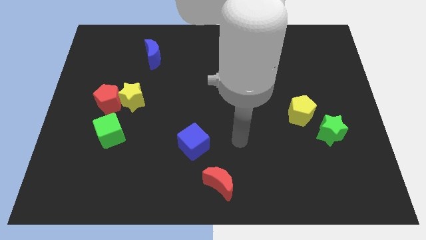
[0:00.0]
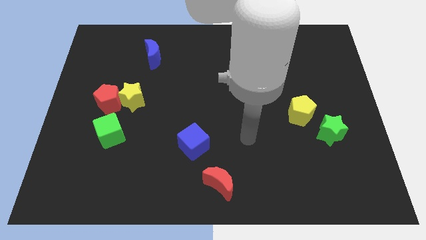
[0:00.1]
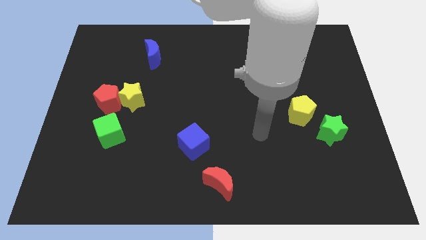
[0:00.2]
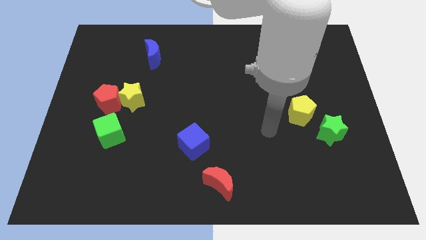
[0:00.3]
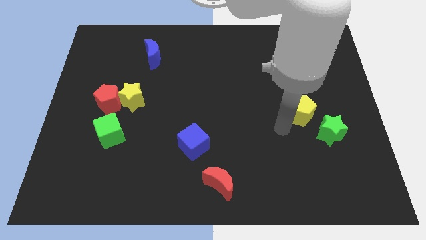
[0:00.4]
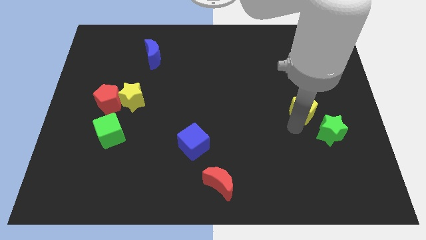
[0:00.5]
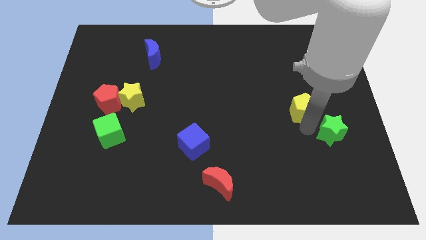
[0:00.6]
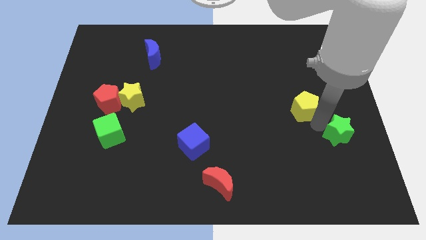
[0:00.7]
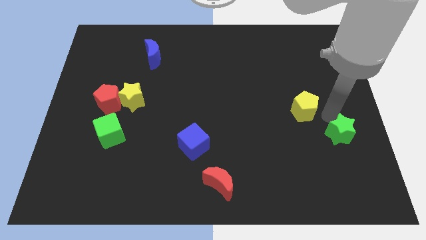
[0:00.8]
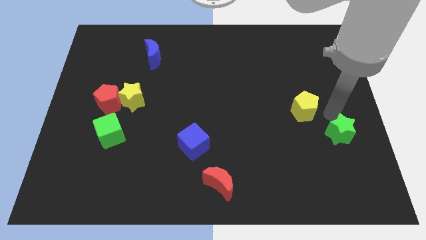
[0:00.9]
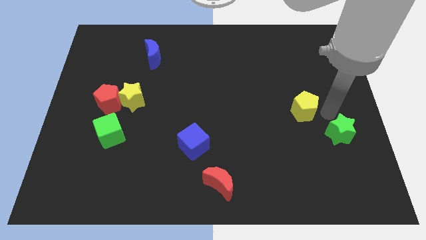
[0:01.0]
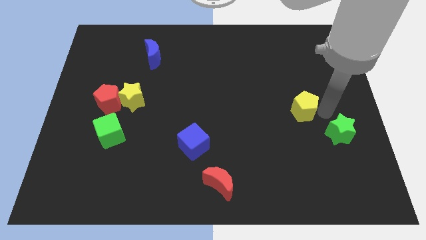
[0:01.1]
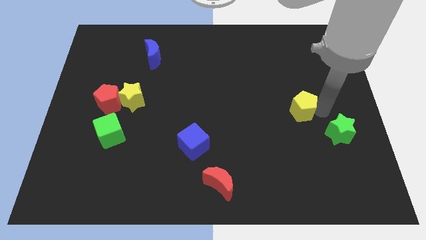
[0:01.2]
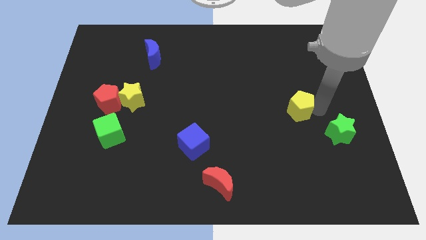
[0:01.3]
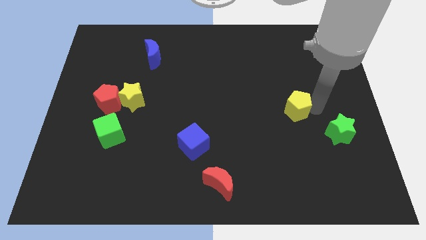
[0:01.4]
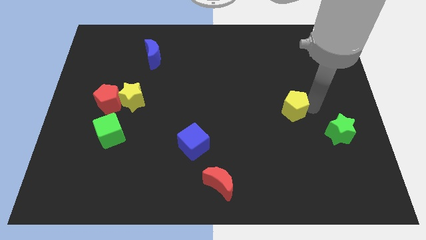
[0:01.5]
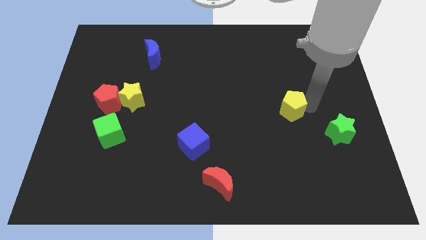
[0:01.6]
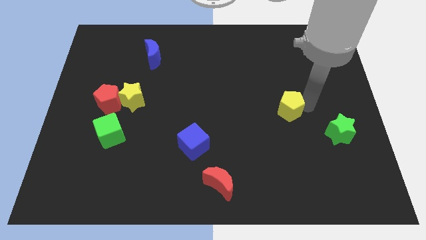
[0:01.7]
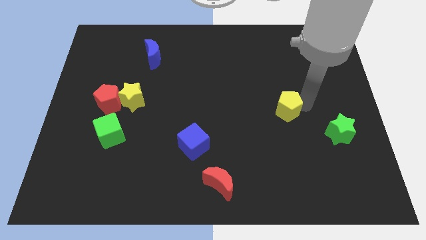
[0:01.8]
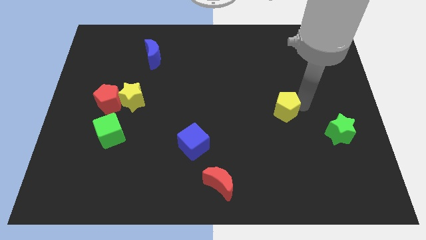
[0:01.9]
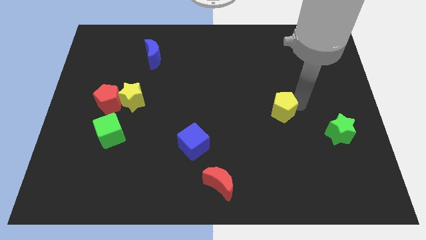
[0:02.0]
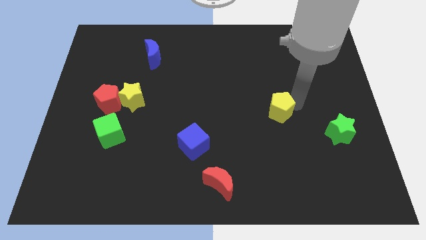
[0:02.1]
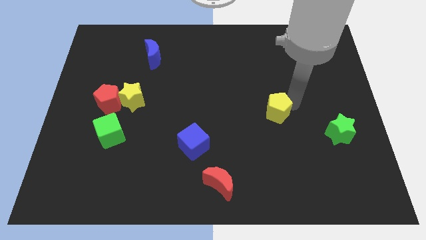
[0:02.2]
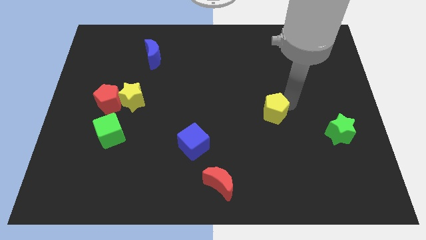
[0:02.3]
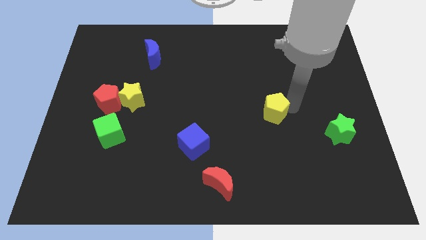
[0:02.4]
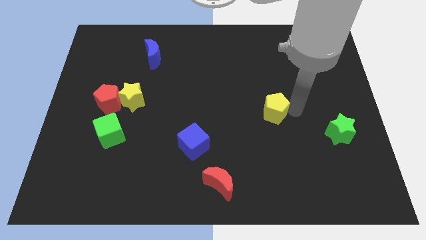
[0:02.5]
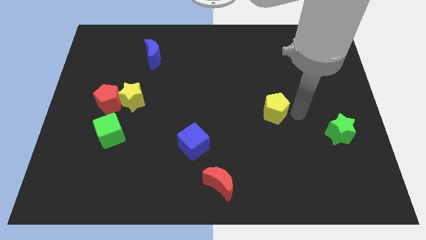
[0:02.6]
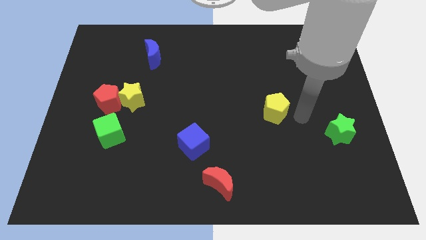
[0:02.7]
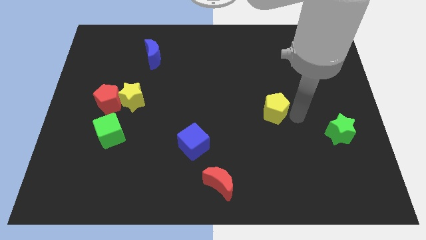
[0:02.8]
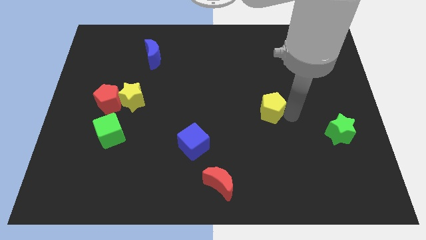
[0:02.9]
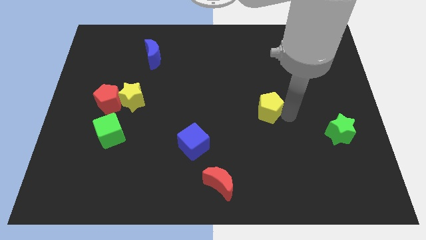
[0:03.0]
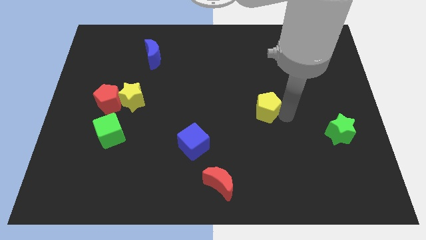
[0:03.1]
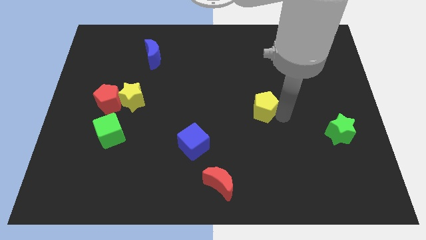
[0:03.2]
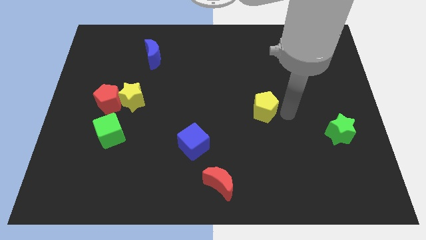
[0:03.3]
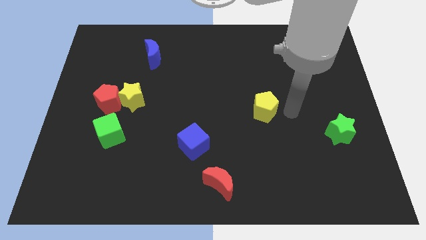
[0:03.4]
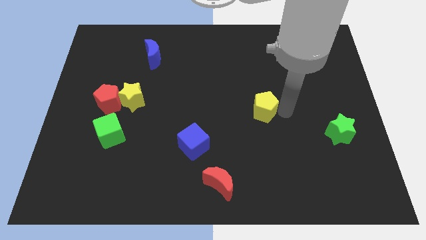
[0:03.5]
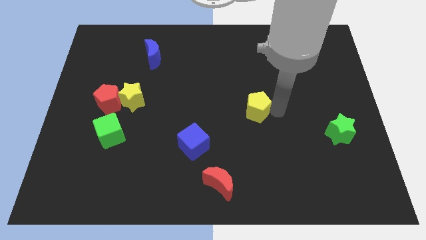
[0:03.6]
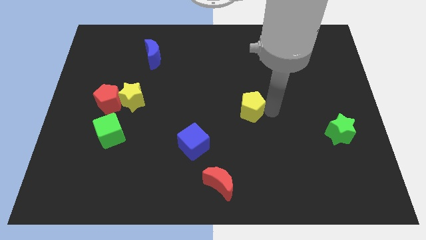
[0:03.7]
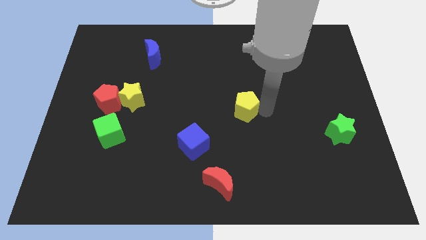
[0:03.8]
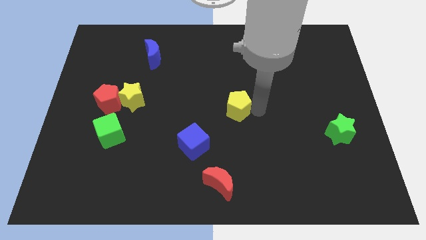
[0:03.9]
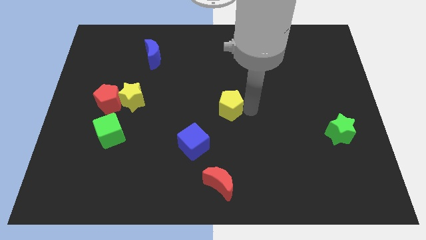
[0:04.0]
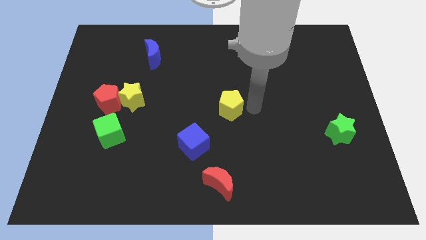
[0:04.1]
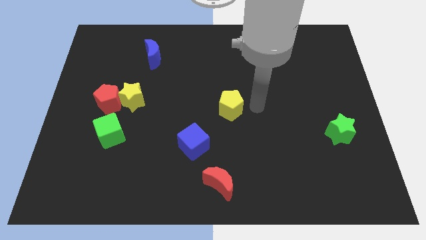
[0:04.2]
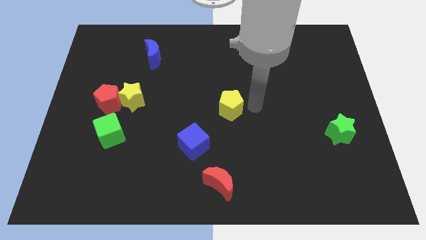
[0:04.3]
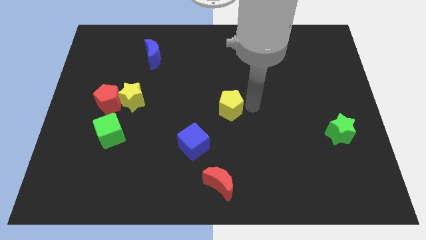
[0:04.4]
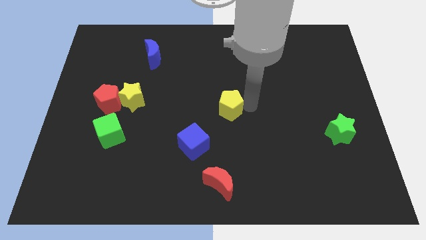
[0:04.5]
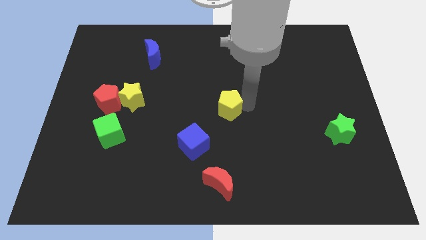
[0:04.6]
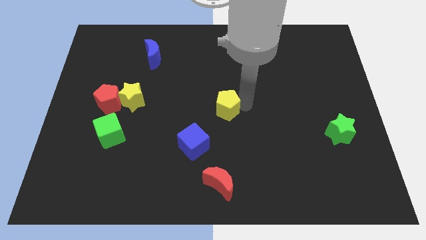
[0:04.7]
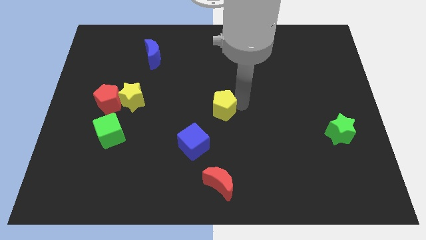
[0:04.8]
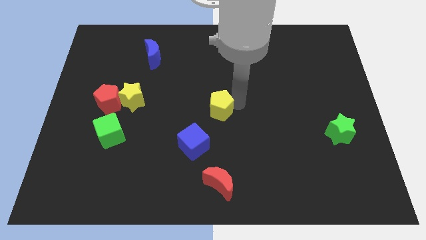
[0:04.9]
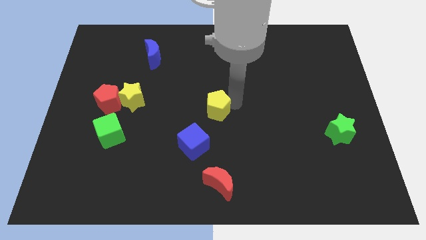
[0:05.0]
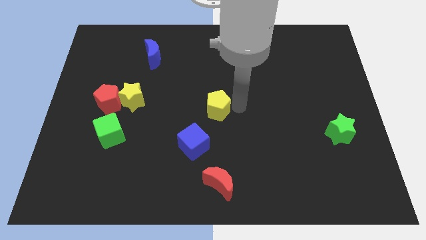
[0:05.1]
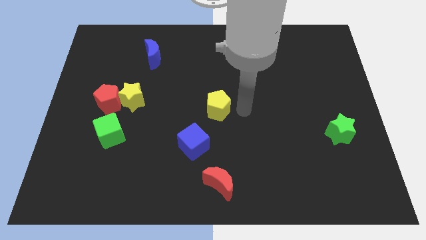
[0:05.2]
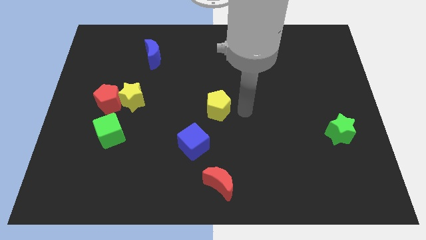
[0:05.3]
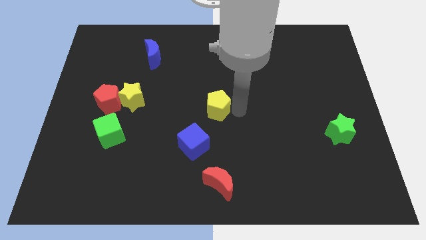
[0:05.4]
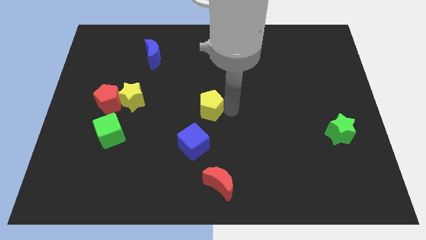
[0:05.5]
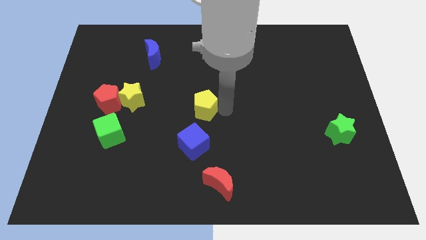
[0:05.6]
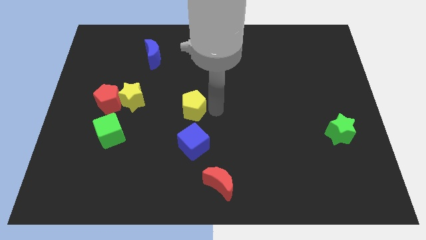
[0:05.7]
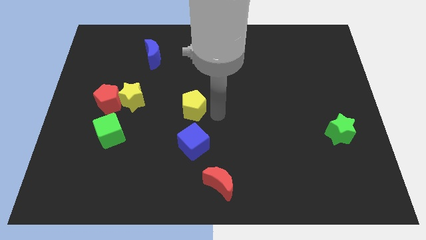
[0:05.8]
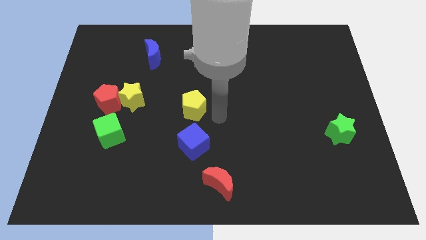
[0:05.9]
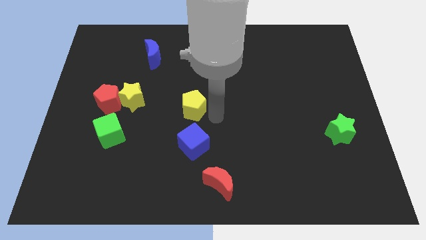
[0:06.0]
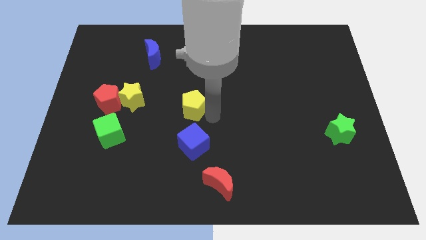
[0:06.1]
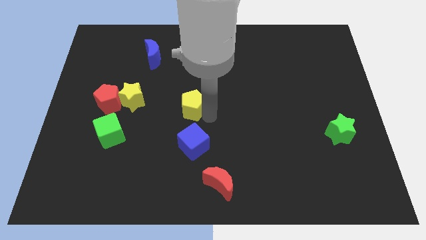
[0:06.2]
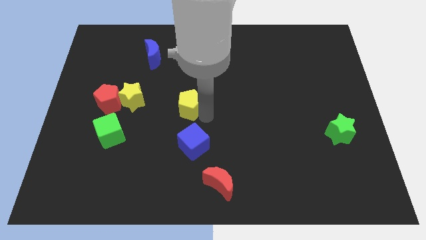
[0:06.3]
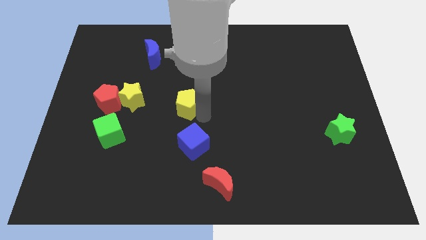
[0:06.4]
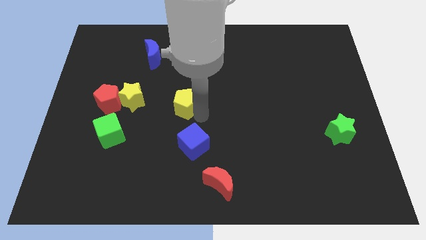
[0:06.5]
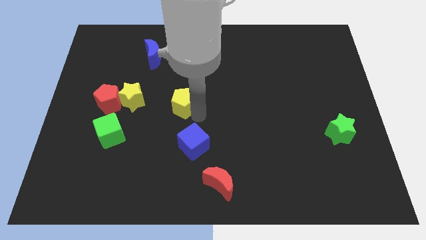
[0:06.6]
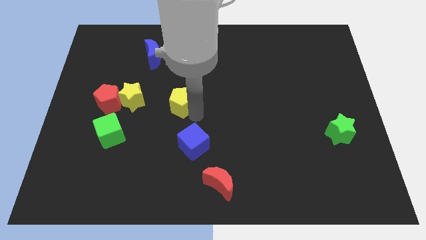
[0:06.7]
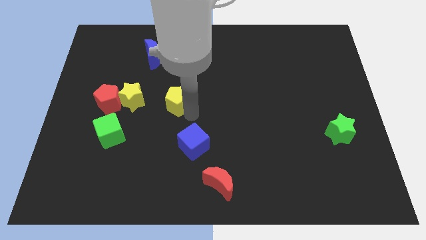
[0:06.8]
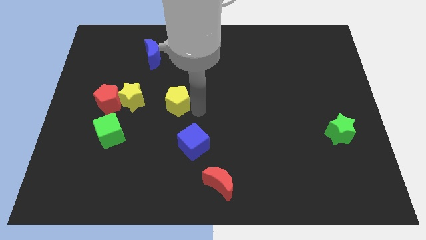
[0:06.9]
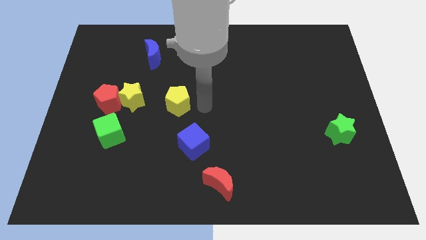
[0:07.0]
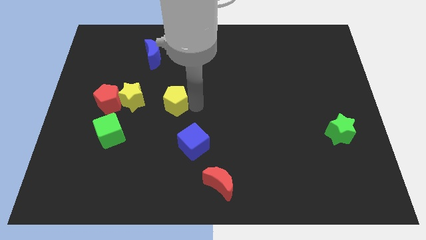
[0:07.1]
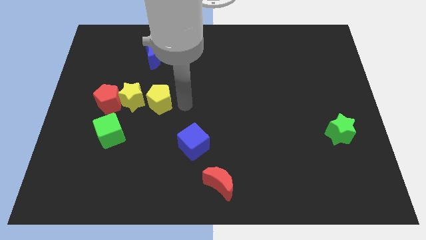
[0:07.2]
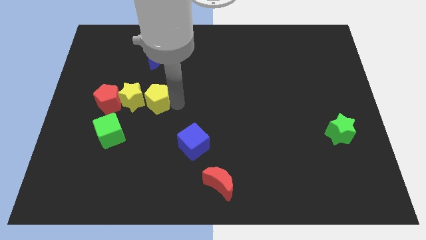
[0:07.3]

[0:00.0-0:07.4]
put the yellow pentagon towards the yellow star
